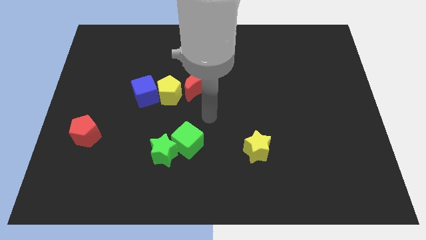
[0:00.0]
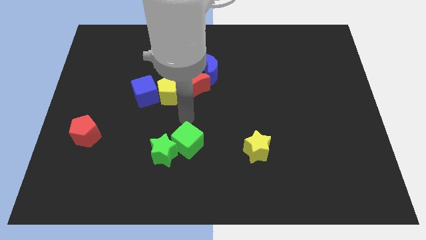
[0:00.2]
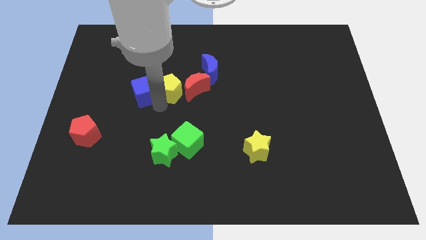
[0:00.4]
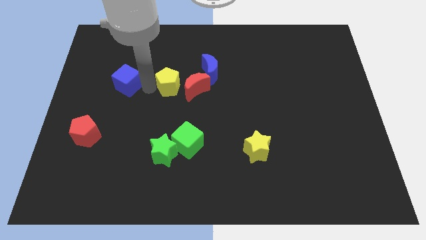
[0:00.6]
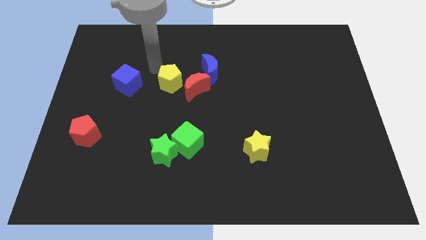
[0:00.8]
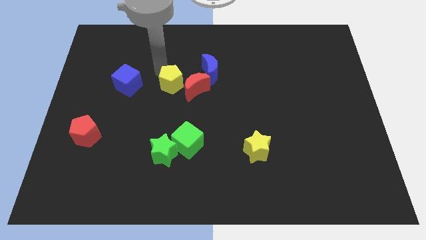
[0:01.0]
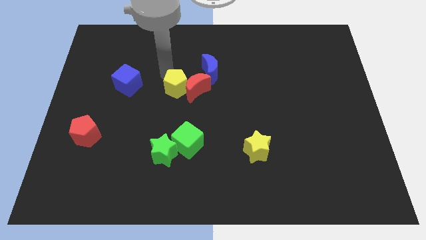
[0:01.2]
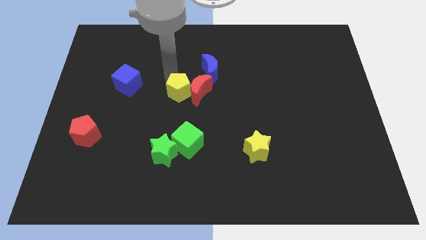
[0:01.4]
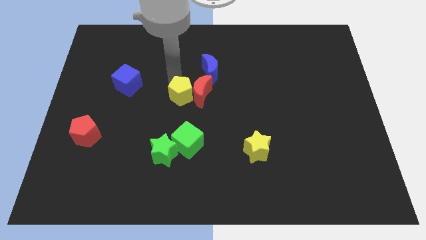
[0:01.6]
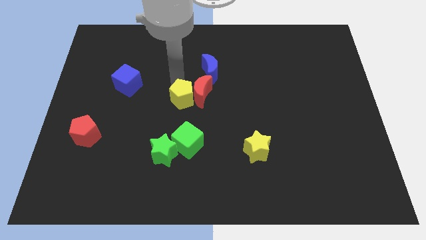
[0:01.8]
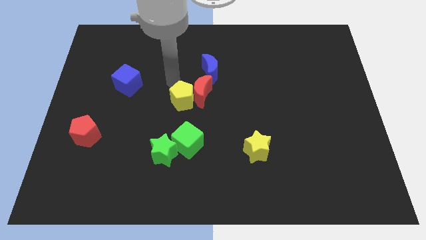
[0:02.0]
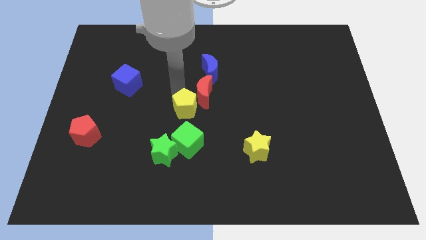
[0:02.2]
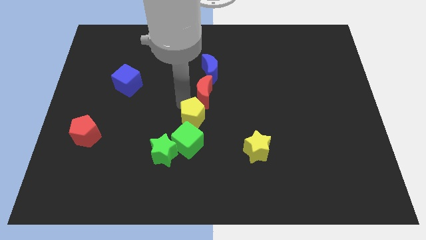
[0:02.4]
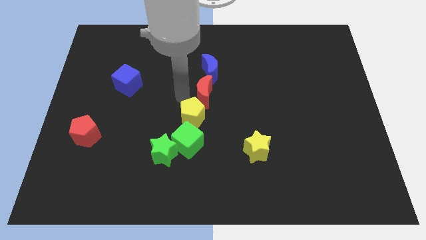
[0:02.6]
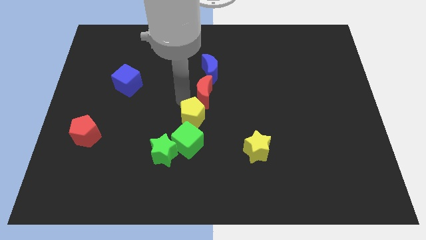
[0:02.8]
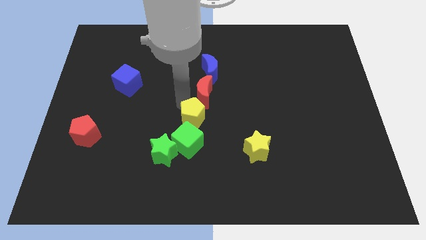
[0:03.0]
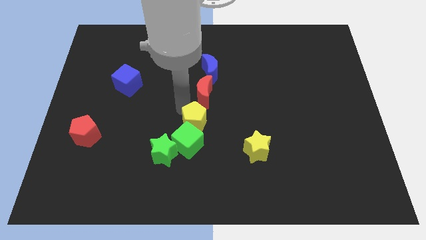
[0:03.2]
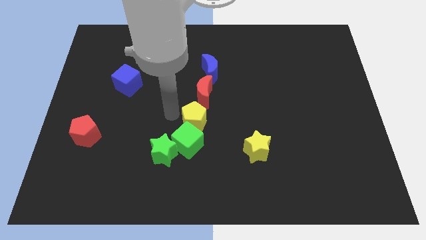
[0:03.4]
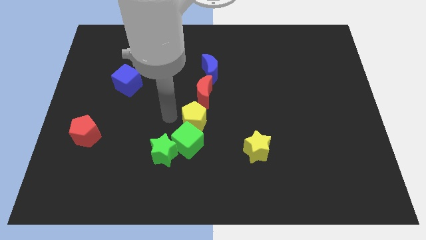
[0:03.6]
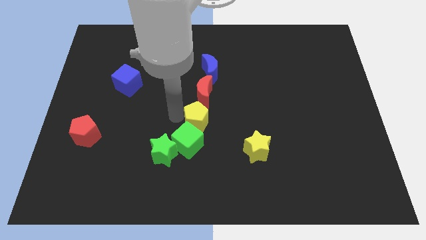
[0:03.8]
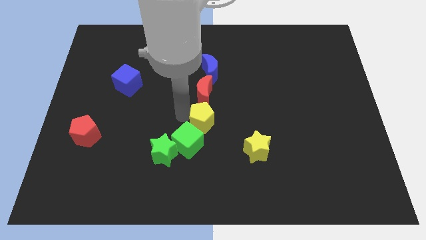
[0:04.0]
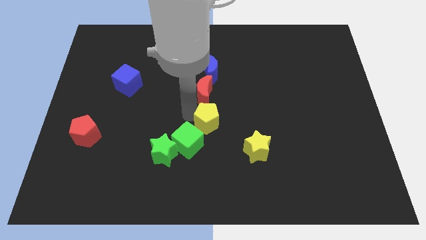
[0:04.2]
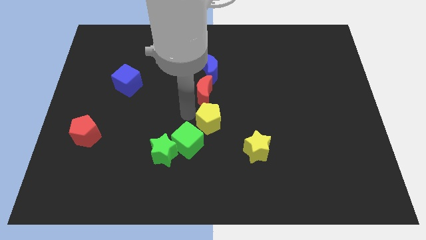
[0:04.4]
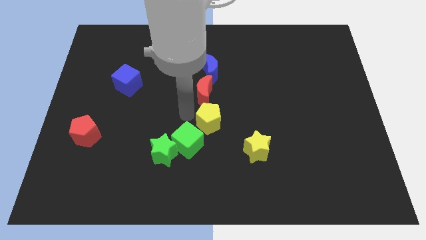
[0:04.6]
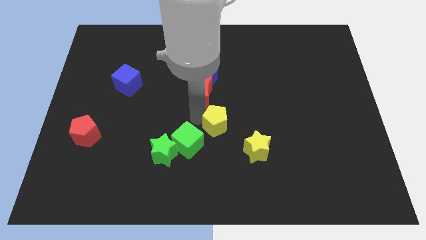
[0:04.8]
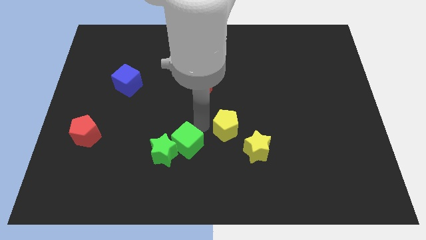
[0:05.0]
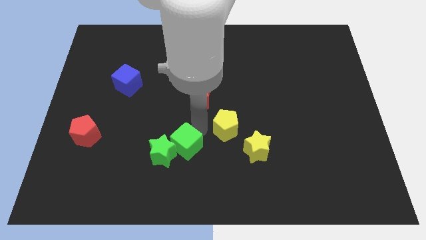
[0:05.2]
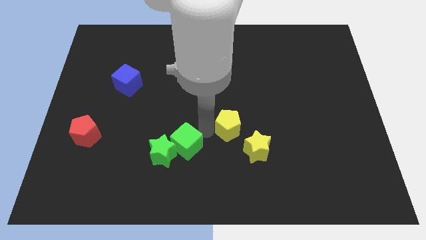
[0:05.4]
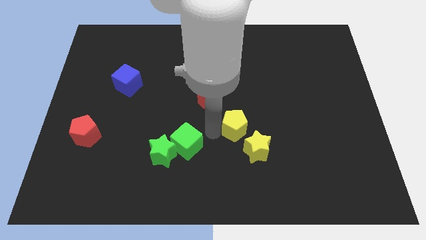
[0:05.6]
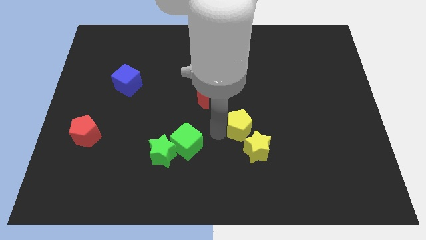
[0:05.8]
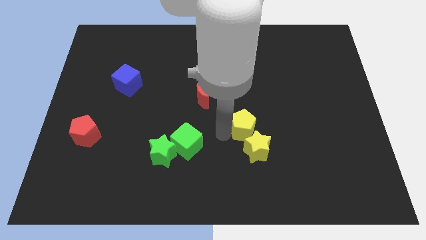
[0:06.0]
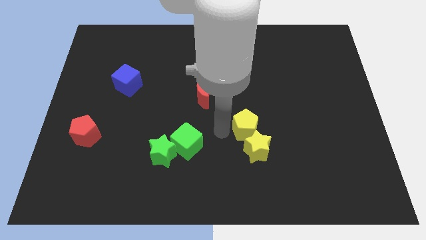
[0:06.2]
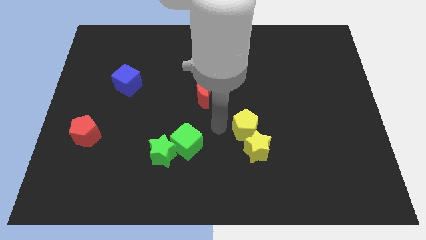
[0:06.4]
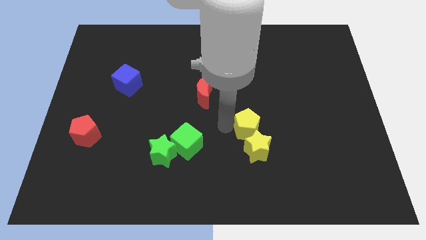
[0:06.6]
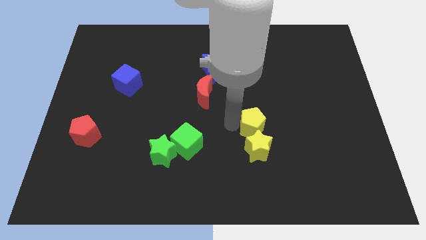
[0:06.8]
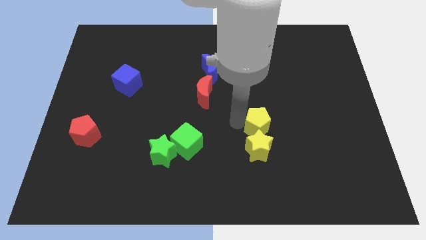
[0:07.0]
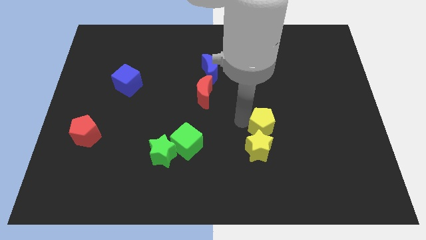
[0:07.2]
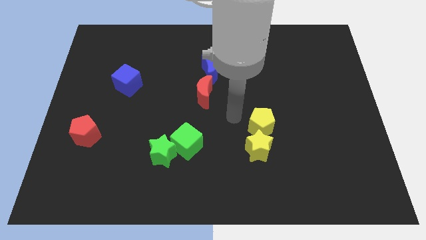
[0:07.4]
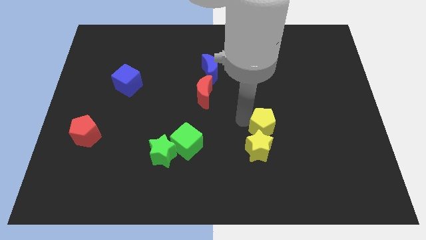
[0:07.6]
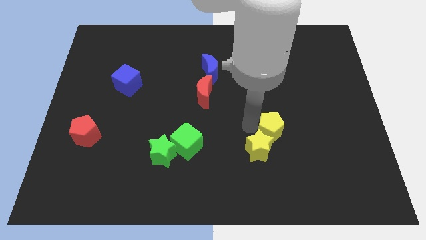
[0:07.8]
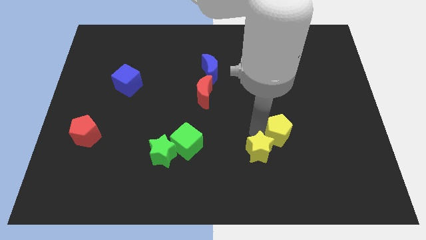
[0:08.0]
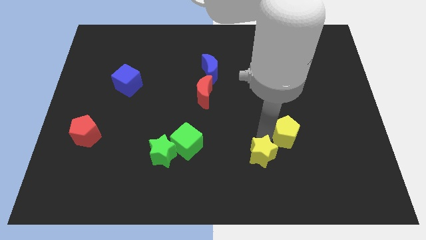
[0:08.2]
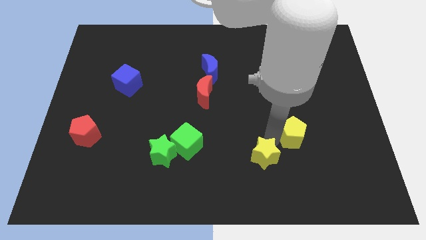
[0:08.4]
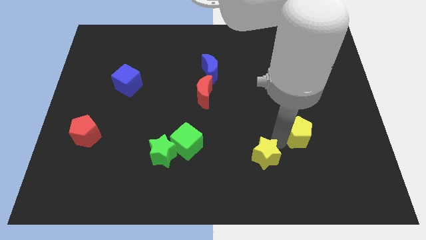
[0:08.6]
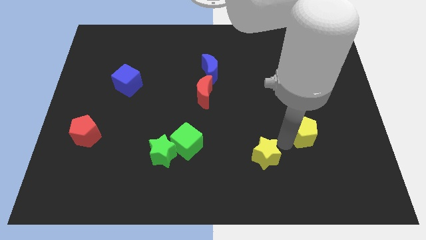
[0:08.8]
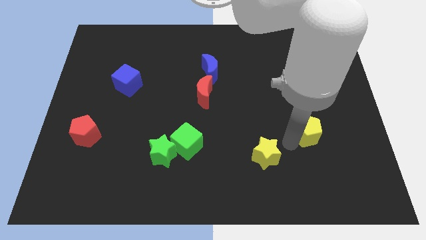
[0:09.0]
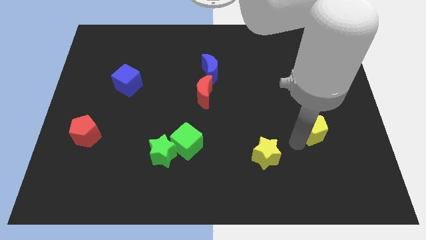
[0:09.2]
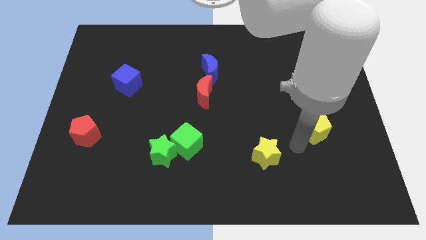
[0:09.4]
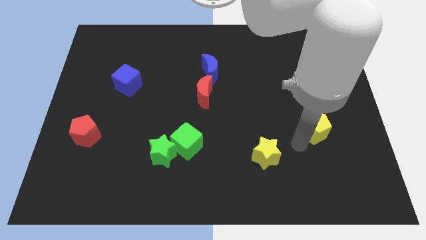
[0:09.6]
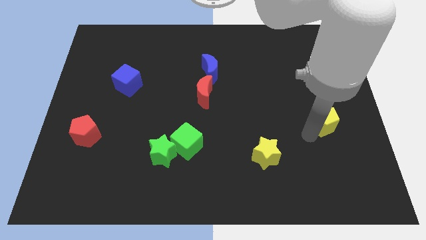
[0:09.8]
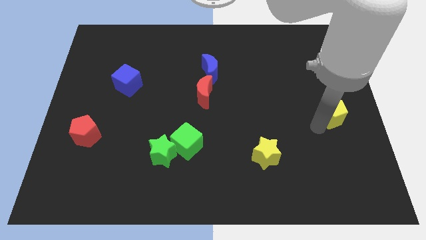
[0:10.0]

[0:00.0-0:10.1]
put the yellow pentagon to the right side of the board

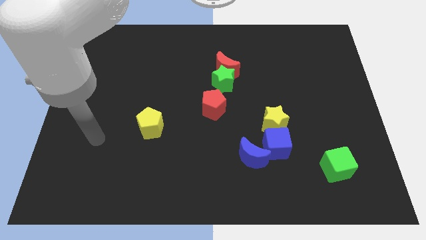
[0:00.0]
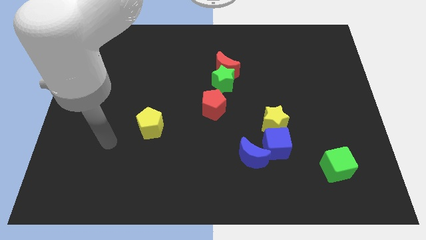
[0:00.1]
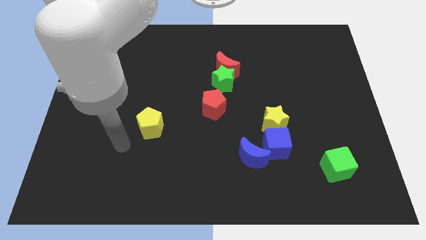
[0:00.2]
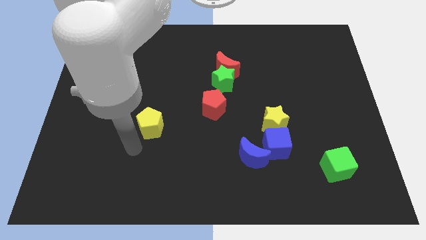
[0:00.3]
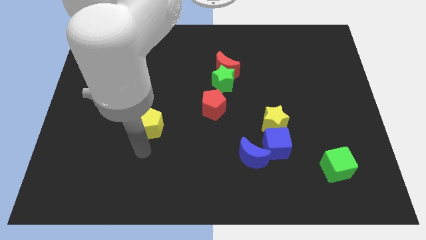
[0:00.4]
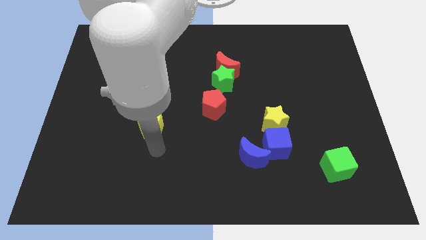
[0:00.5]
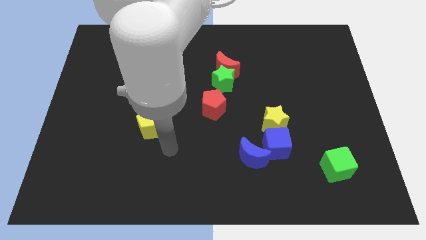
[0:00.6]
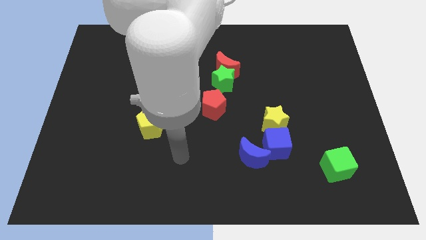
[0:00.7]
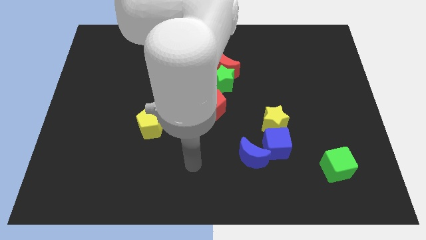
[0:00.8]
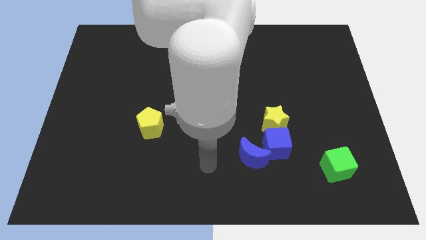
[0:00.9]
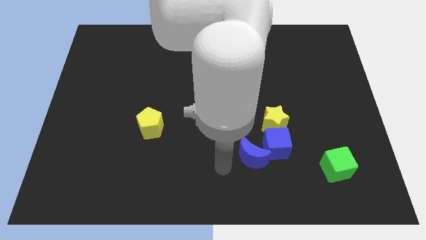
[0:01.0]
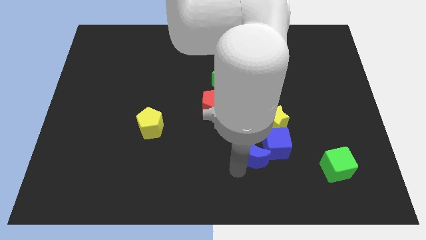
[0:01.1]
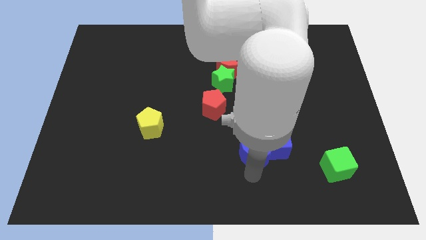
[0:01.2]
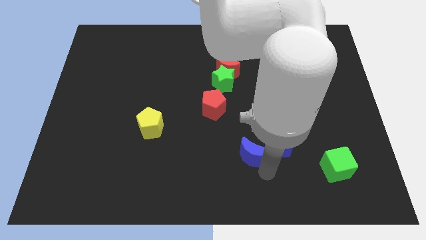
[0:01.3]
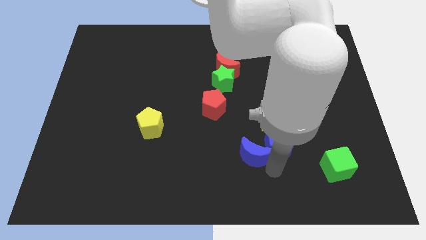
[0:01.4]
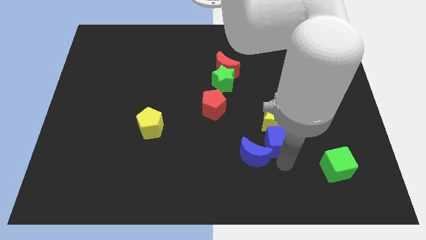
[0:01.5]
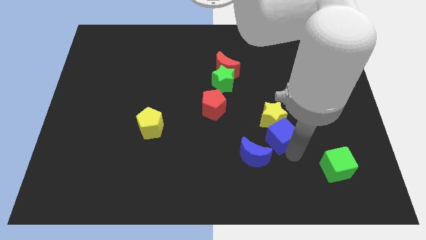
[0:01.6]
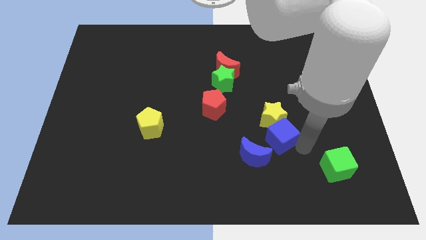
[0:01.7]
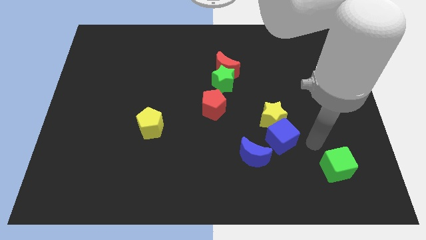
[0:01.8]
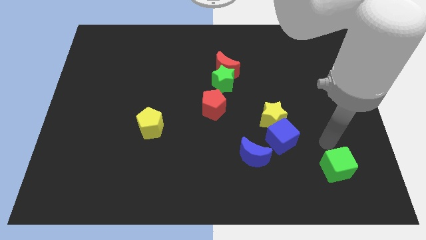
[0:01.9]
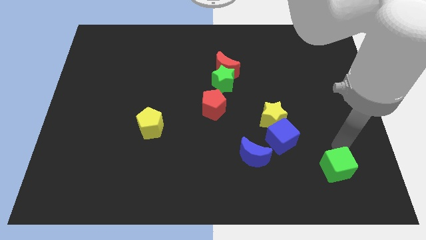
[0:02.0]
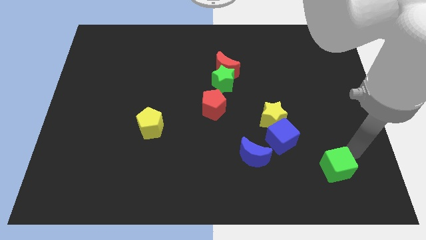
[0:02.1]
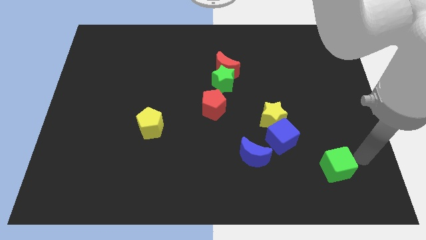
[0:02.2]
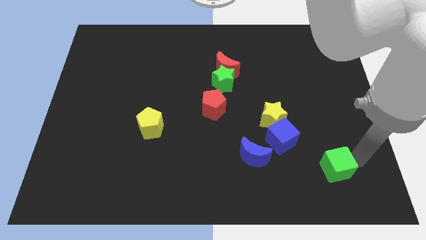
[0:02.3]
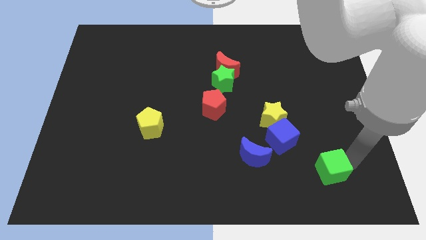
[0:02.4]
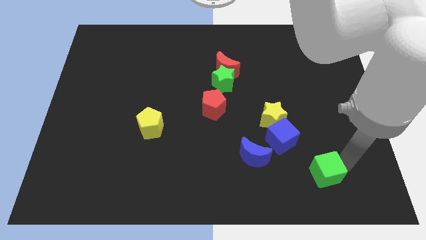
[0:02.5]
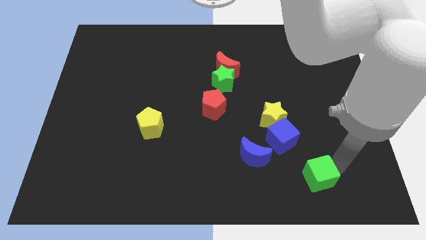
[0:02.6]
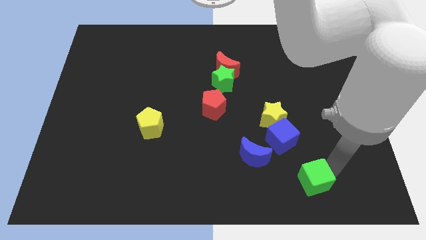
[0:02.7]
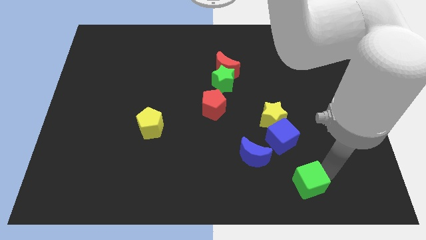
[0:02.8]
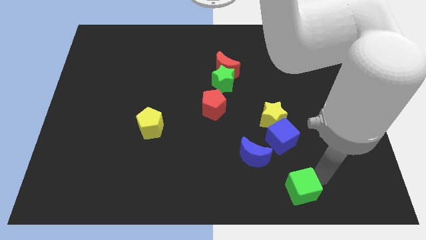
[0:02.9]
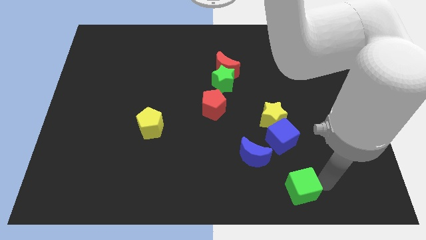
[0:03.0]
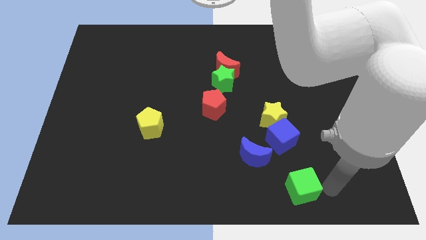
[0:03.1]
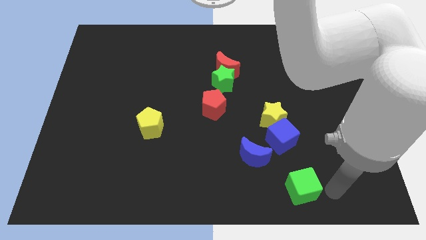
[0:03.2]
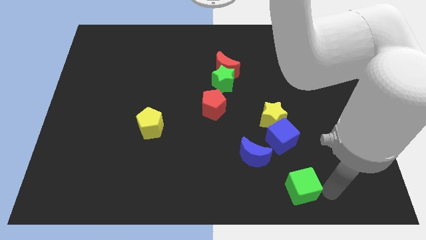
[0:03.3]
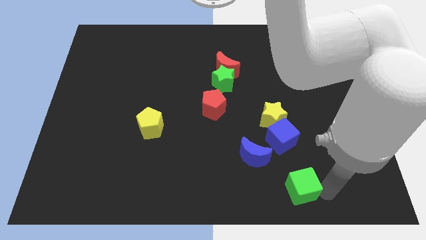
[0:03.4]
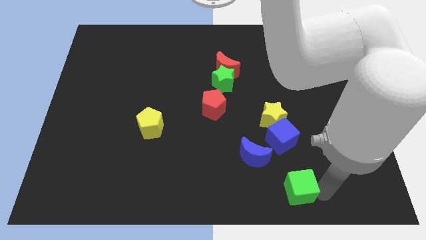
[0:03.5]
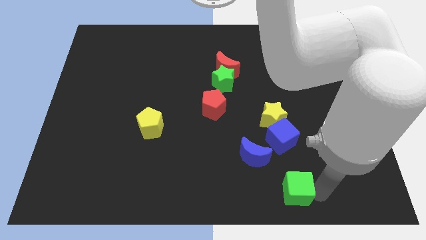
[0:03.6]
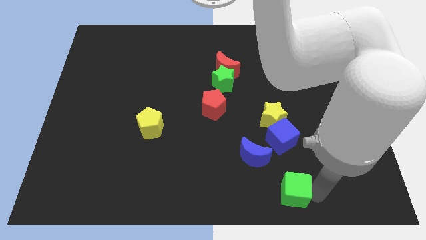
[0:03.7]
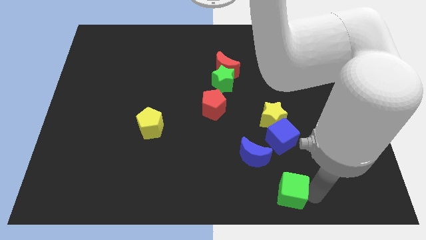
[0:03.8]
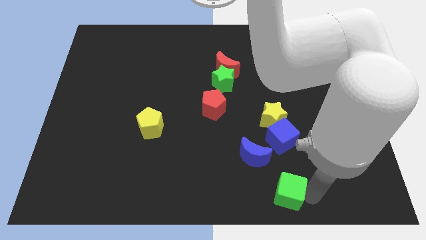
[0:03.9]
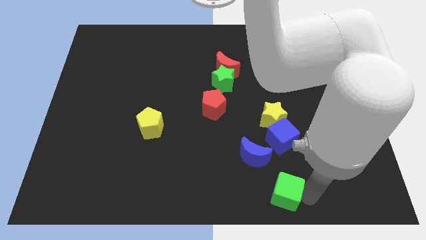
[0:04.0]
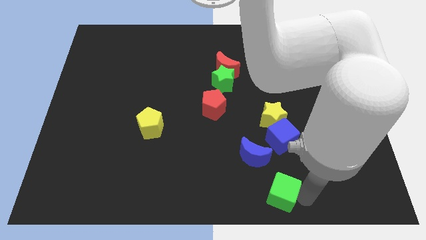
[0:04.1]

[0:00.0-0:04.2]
push the green cube to the bottom
